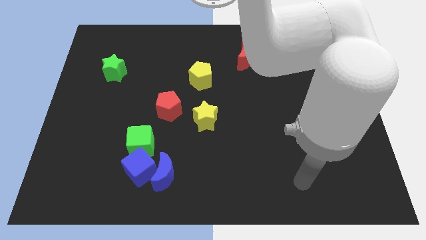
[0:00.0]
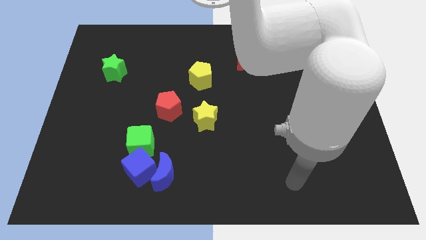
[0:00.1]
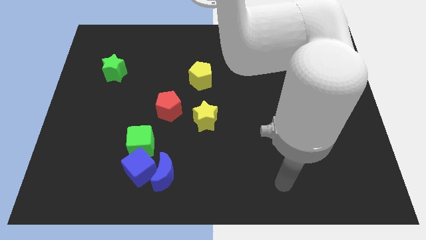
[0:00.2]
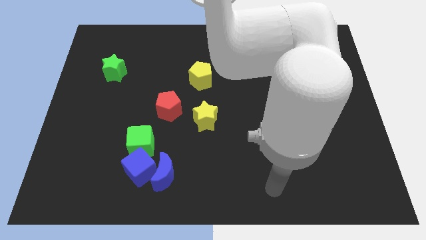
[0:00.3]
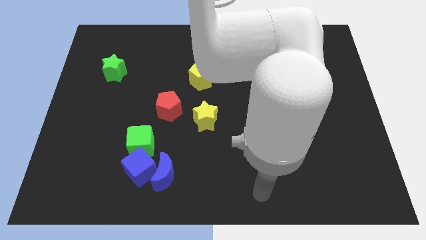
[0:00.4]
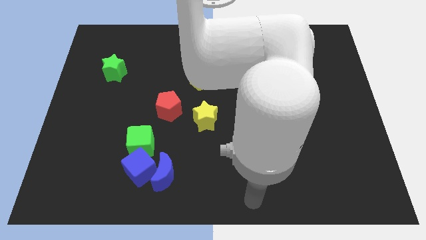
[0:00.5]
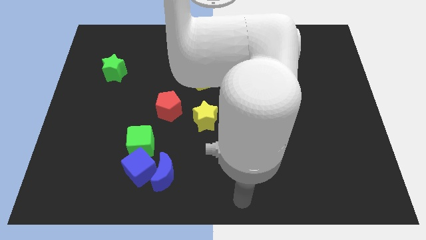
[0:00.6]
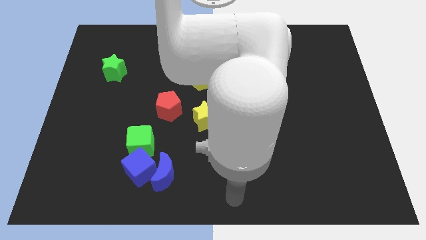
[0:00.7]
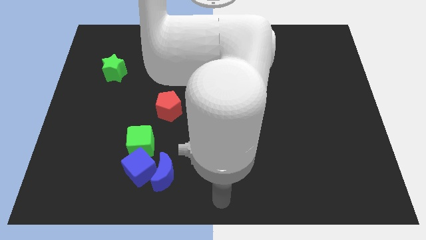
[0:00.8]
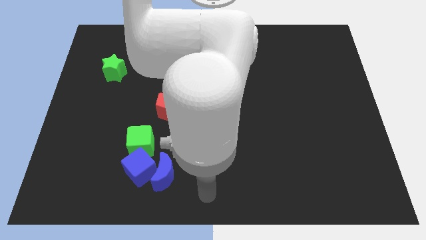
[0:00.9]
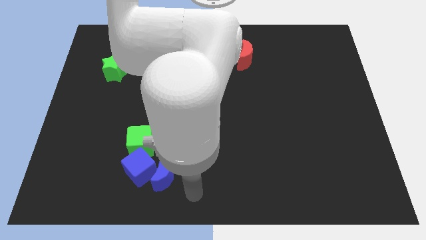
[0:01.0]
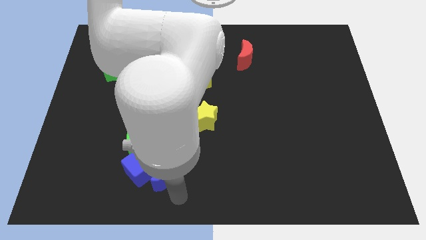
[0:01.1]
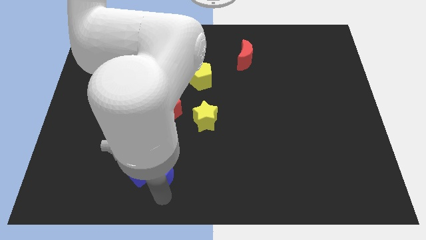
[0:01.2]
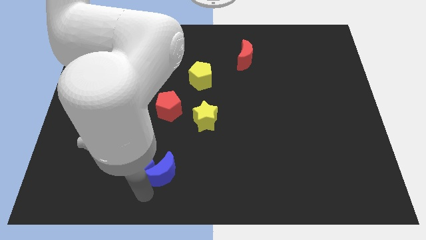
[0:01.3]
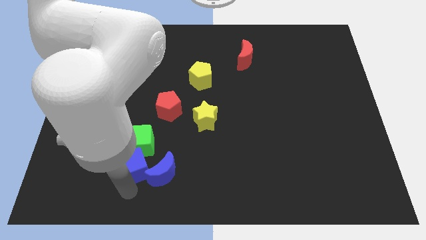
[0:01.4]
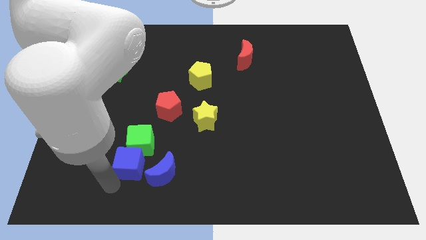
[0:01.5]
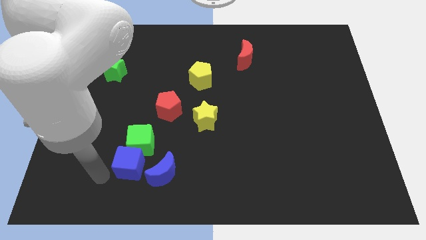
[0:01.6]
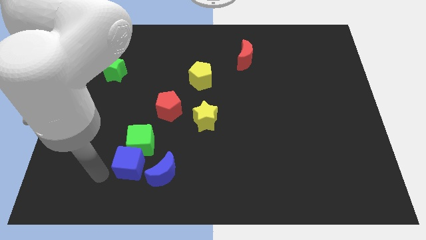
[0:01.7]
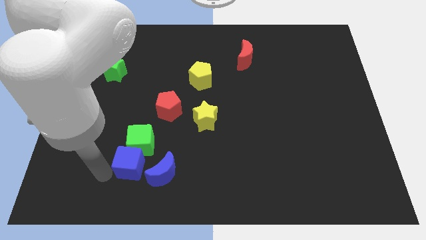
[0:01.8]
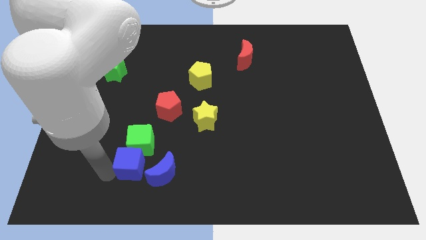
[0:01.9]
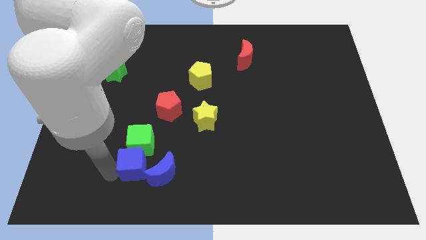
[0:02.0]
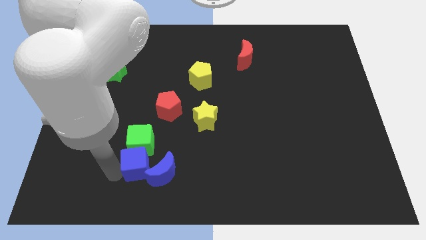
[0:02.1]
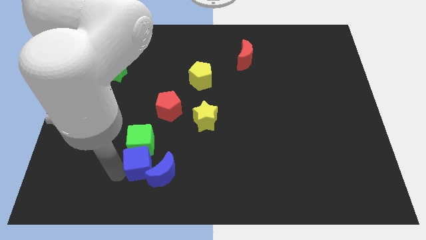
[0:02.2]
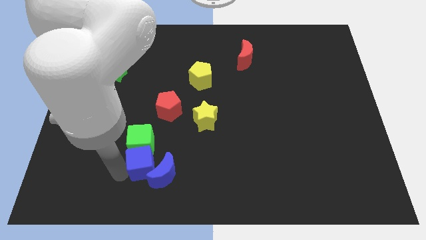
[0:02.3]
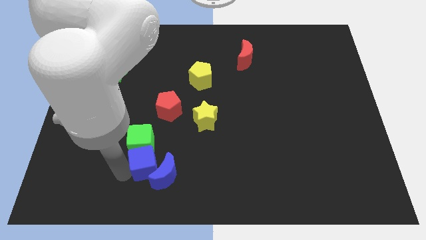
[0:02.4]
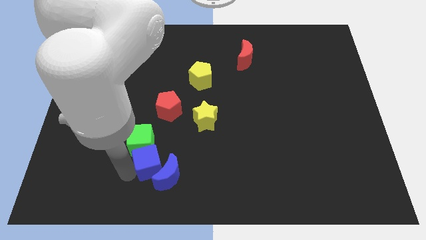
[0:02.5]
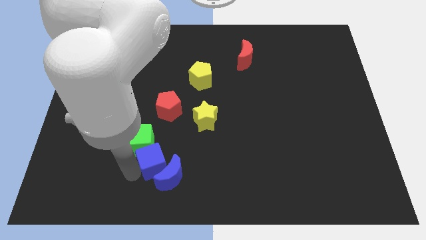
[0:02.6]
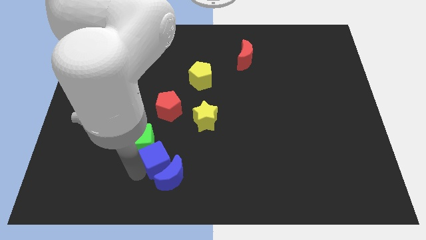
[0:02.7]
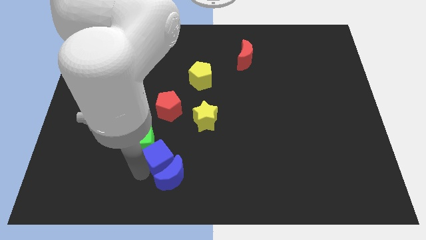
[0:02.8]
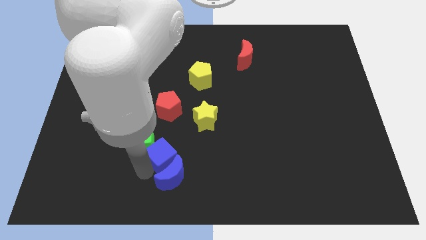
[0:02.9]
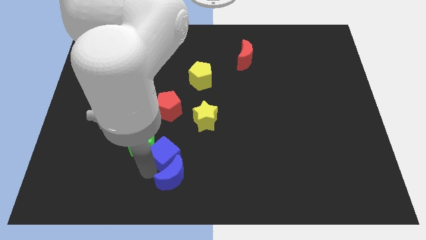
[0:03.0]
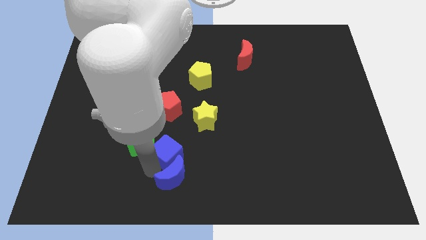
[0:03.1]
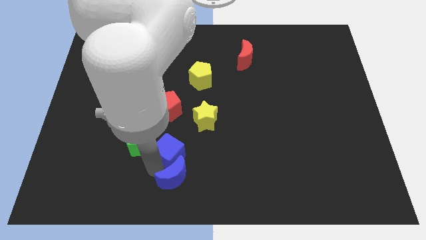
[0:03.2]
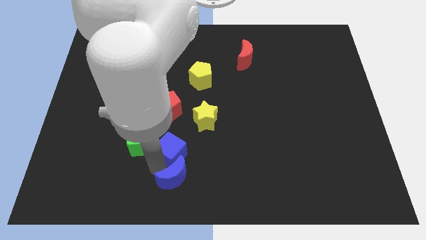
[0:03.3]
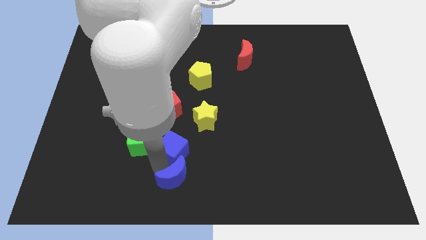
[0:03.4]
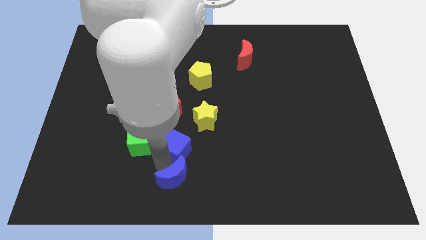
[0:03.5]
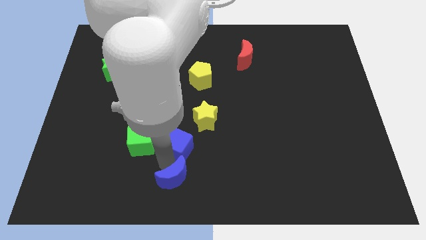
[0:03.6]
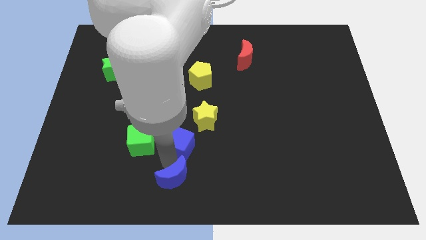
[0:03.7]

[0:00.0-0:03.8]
slightly push the blue cube right

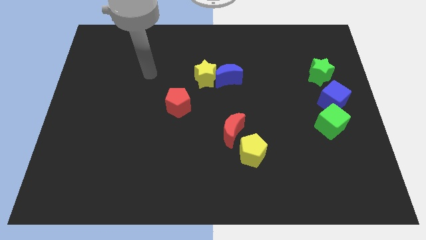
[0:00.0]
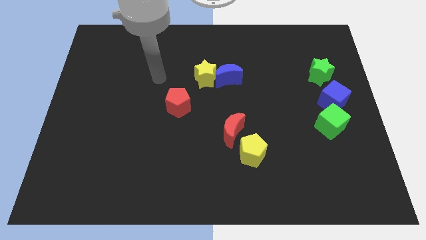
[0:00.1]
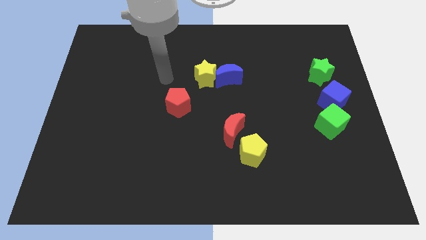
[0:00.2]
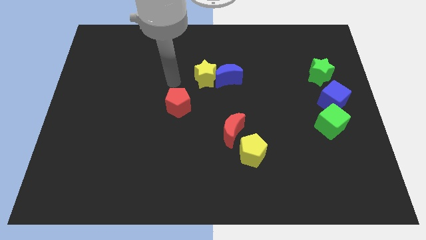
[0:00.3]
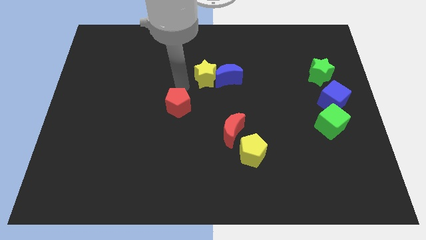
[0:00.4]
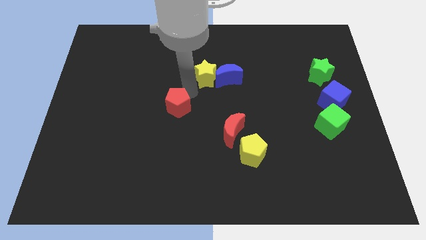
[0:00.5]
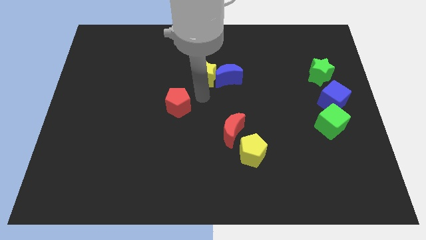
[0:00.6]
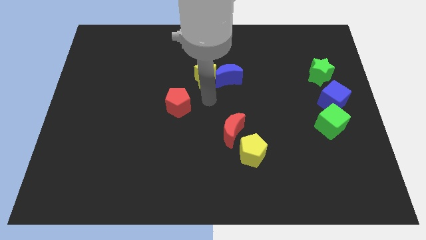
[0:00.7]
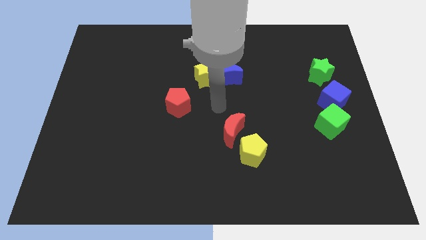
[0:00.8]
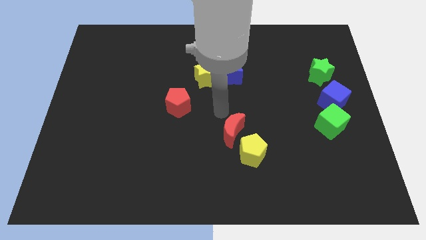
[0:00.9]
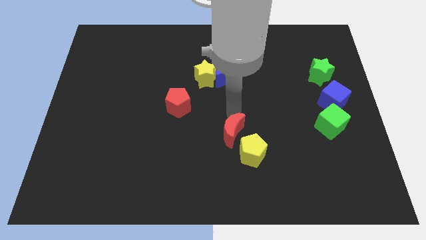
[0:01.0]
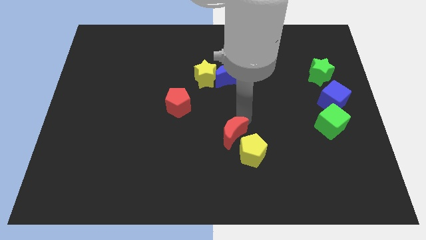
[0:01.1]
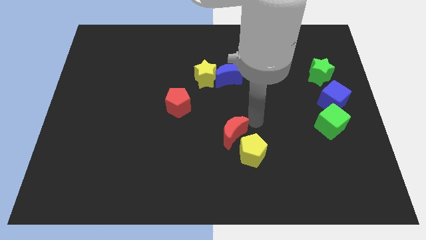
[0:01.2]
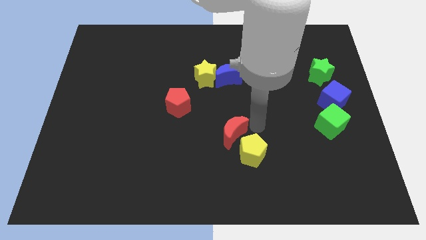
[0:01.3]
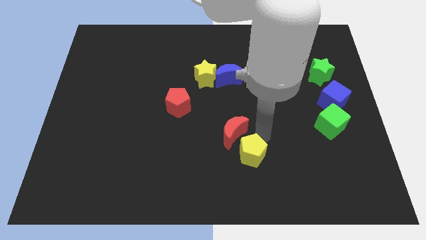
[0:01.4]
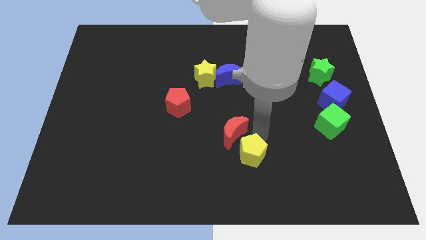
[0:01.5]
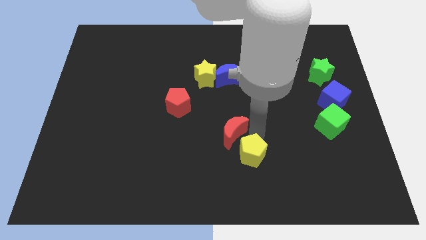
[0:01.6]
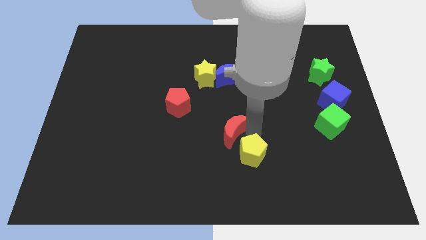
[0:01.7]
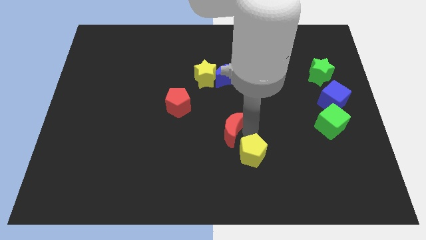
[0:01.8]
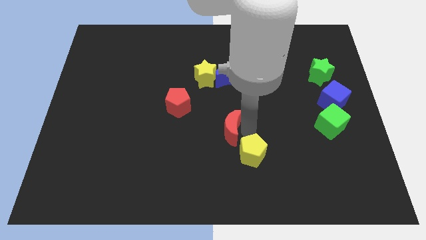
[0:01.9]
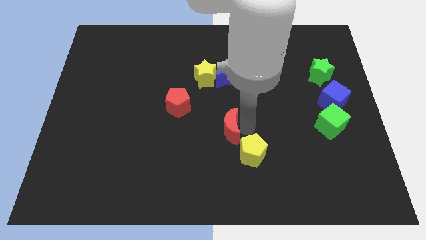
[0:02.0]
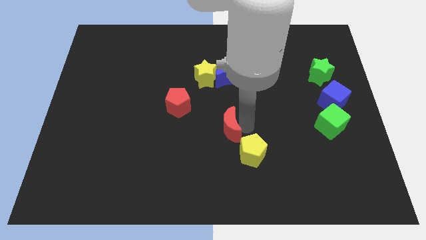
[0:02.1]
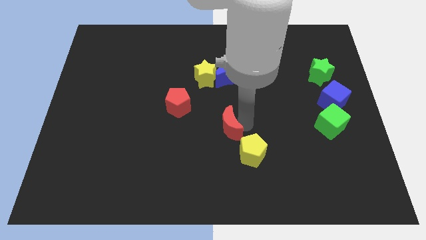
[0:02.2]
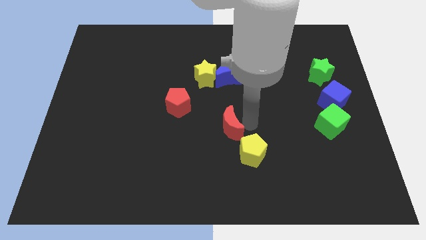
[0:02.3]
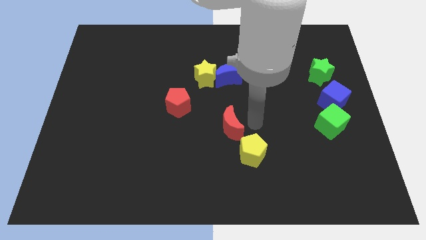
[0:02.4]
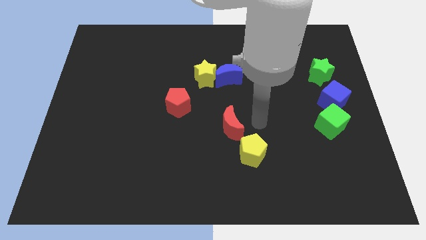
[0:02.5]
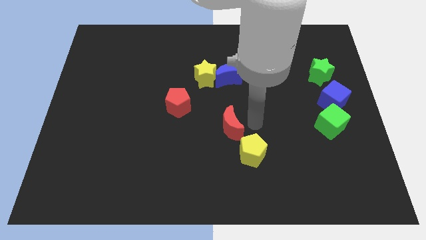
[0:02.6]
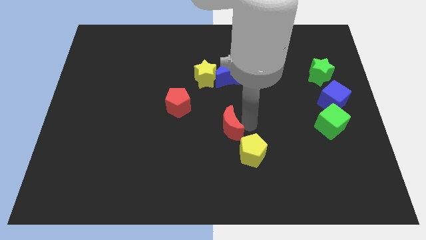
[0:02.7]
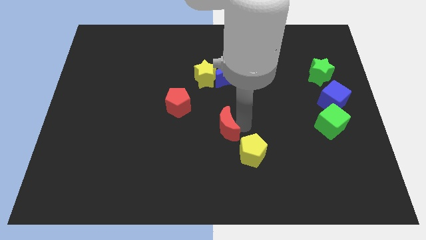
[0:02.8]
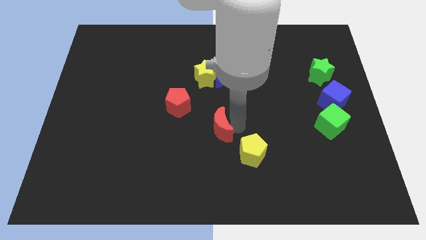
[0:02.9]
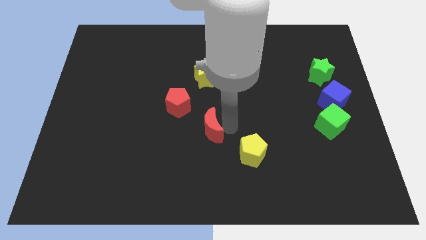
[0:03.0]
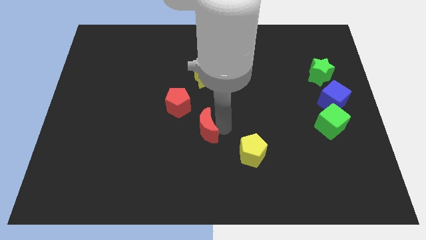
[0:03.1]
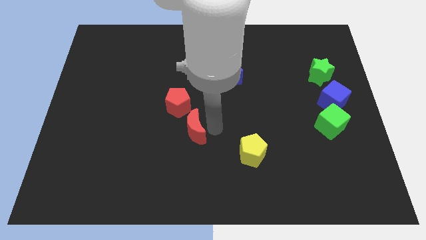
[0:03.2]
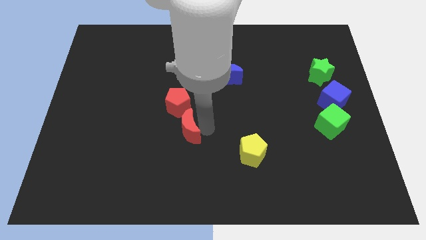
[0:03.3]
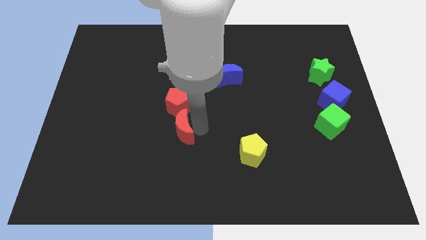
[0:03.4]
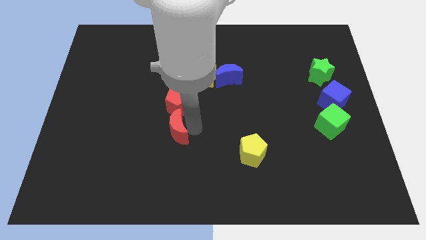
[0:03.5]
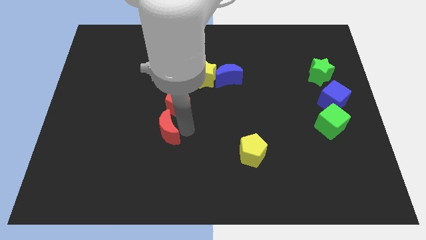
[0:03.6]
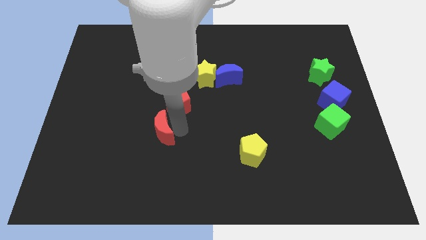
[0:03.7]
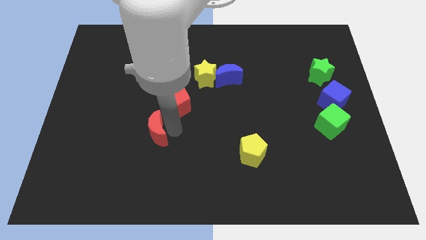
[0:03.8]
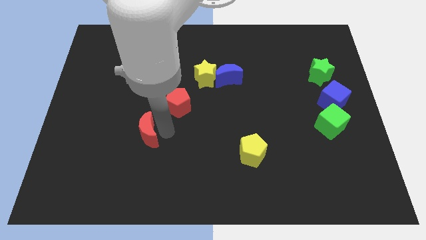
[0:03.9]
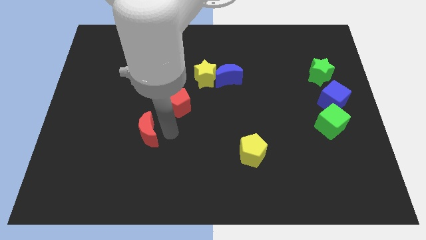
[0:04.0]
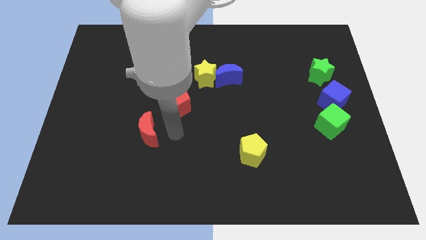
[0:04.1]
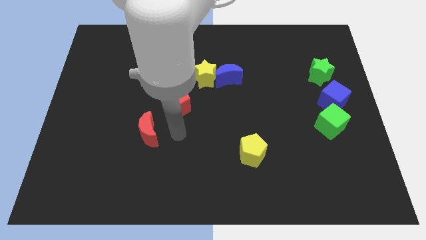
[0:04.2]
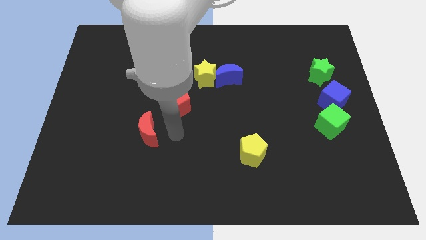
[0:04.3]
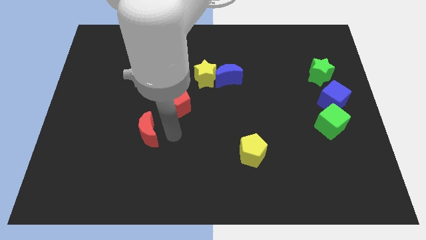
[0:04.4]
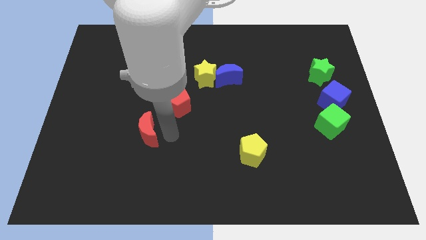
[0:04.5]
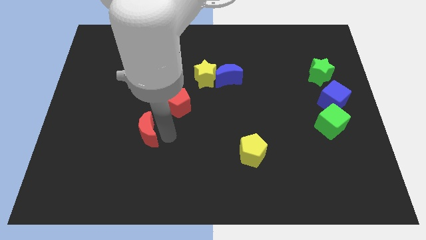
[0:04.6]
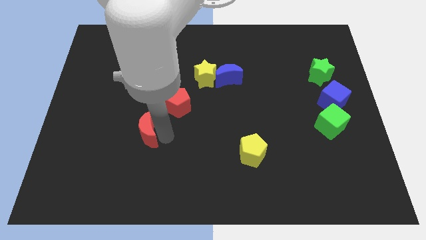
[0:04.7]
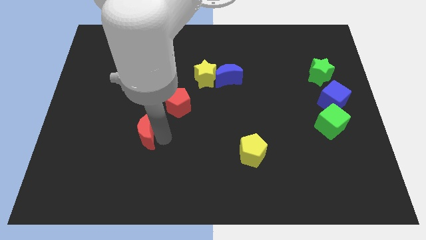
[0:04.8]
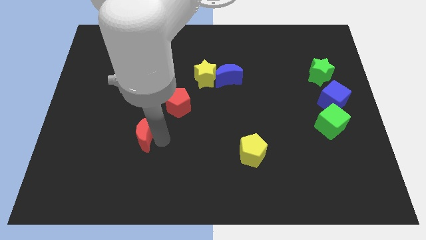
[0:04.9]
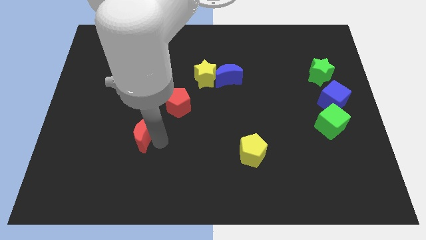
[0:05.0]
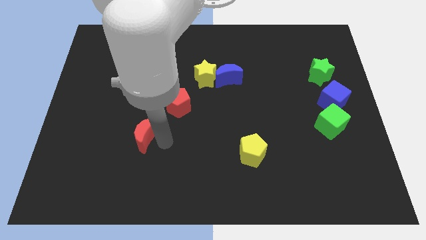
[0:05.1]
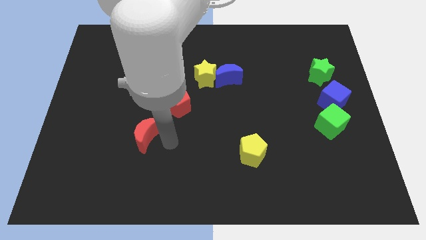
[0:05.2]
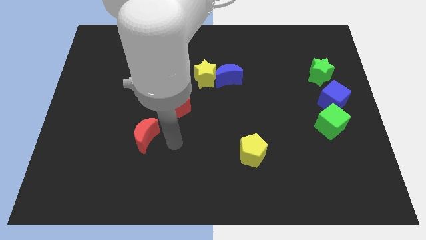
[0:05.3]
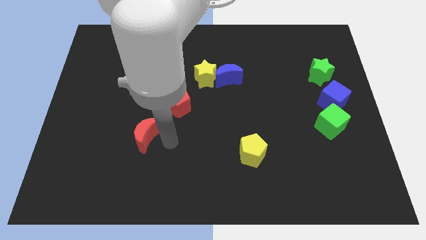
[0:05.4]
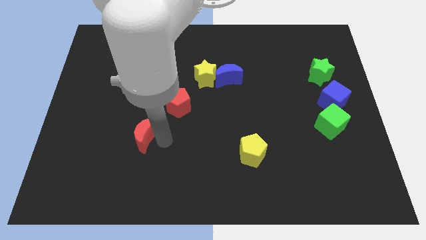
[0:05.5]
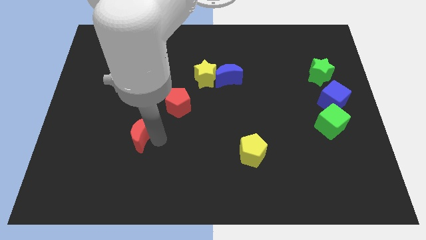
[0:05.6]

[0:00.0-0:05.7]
push the red moon left
